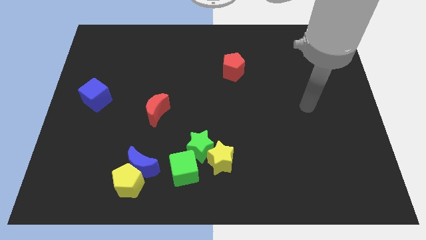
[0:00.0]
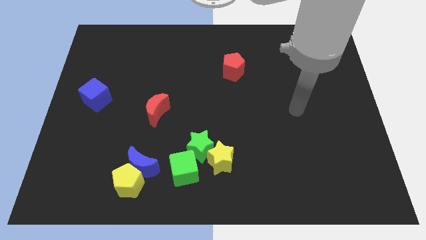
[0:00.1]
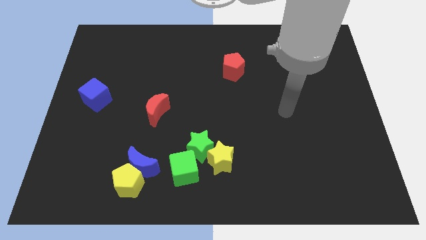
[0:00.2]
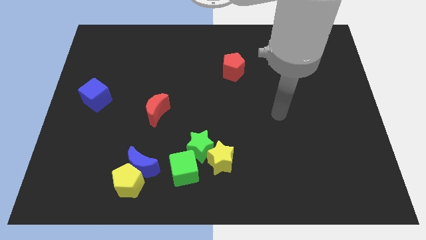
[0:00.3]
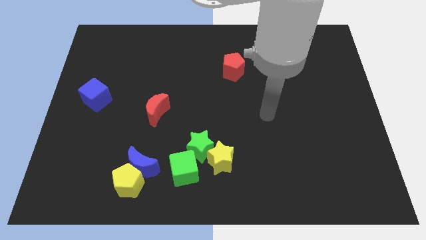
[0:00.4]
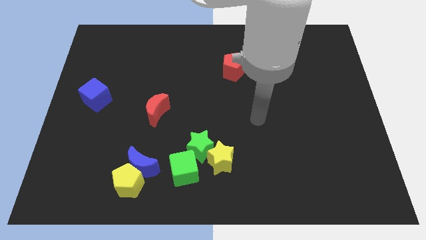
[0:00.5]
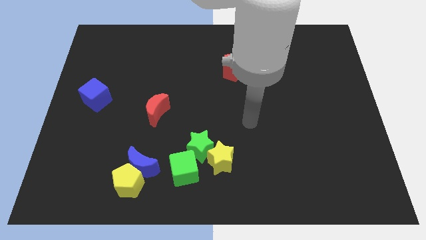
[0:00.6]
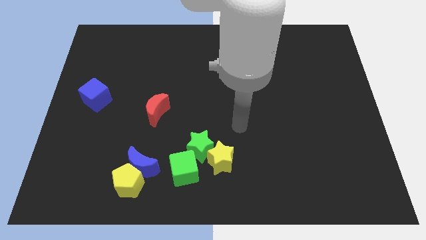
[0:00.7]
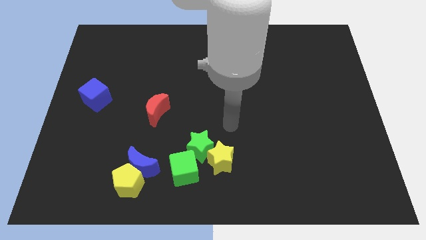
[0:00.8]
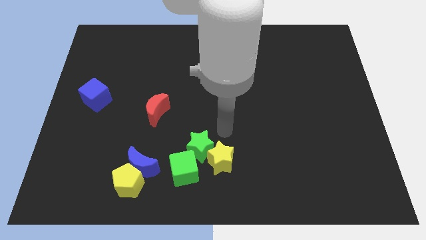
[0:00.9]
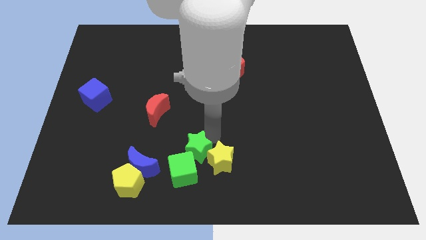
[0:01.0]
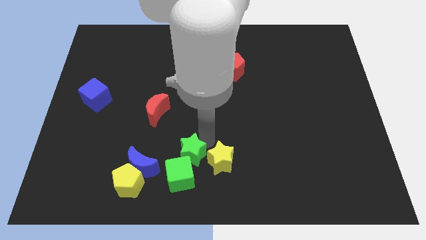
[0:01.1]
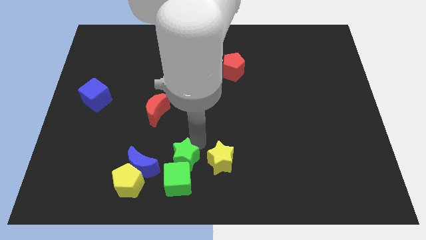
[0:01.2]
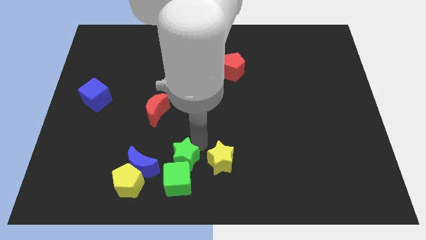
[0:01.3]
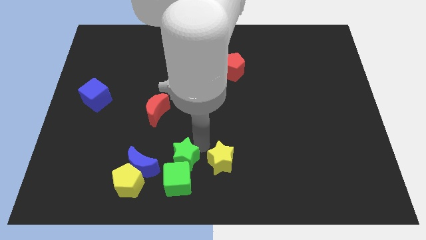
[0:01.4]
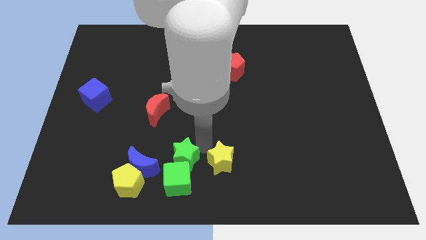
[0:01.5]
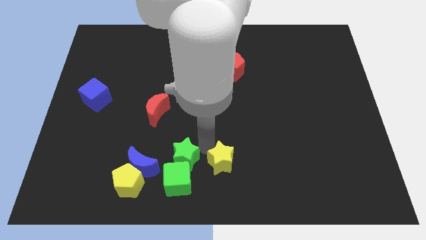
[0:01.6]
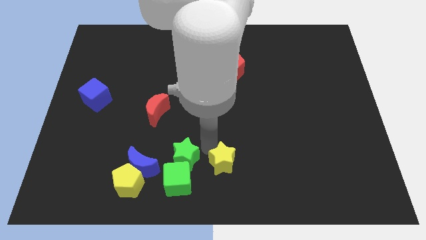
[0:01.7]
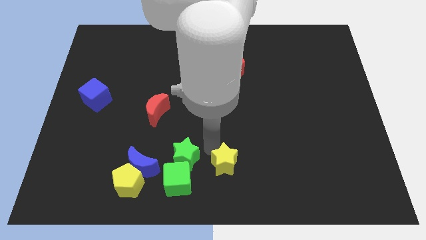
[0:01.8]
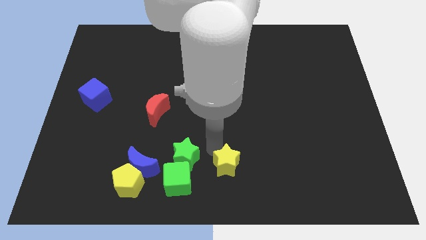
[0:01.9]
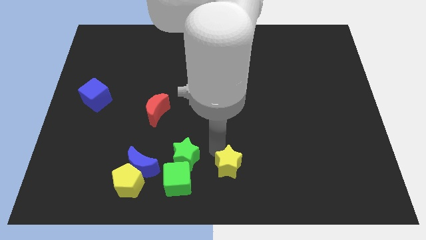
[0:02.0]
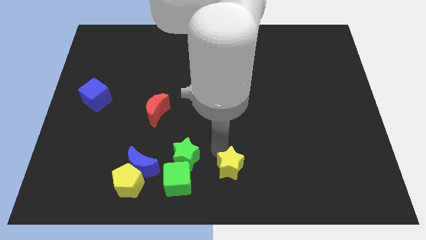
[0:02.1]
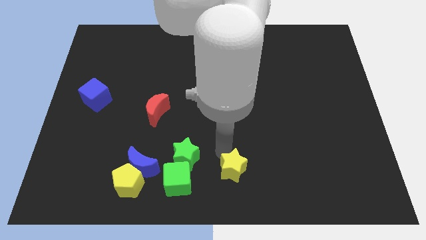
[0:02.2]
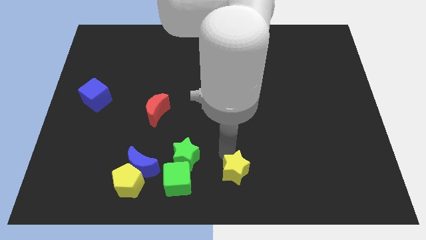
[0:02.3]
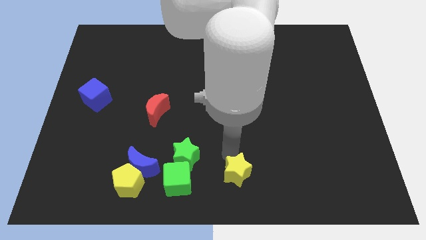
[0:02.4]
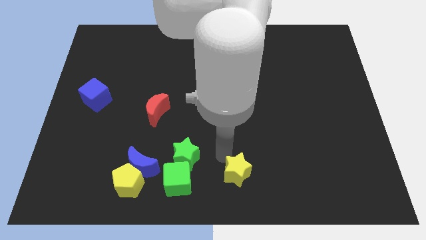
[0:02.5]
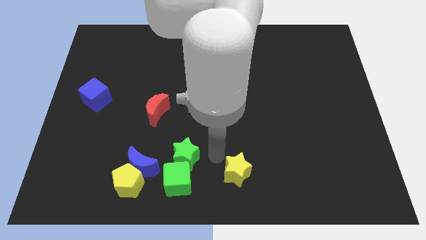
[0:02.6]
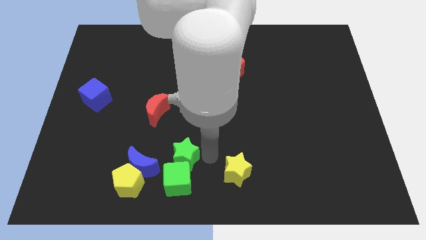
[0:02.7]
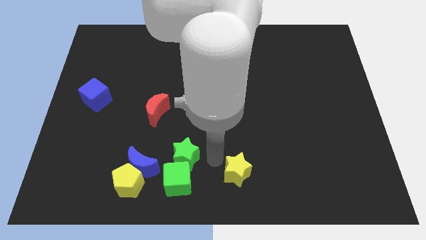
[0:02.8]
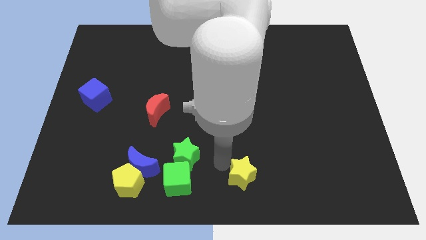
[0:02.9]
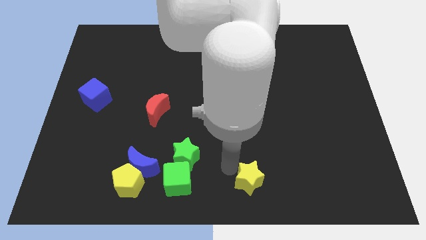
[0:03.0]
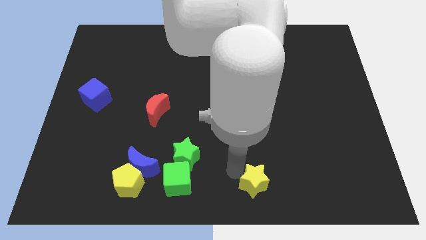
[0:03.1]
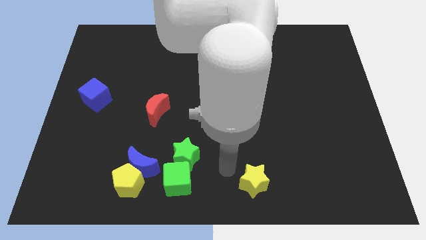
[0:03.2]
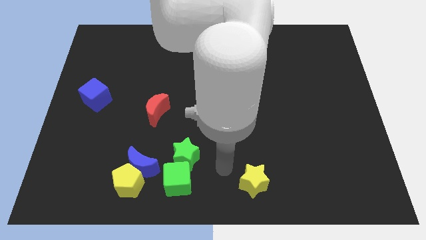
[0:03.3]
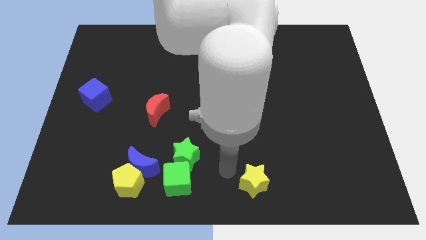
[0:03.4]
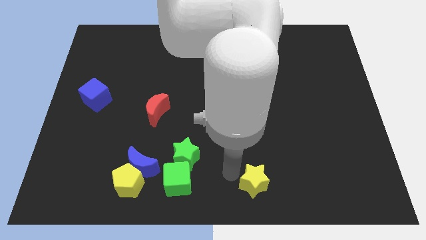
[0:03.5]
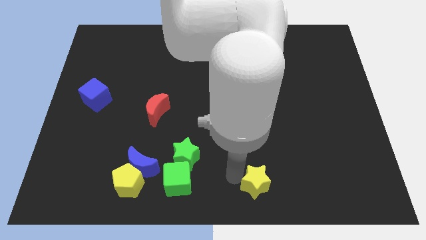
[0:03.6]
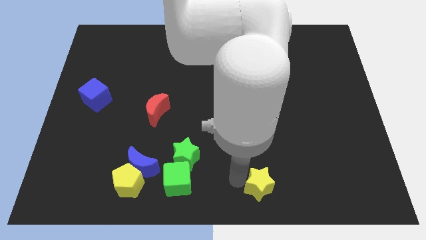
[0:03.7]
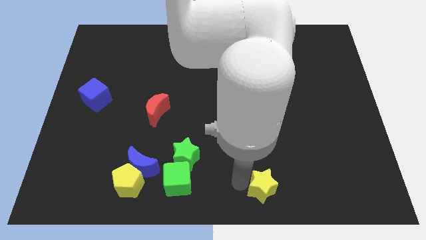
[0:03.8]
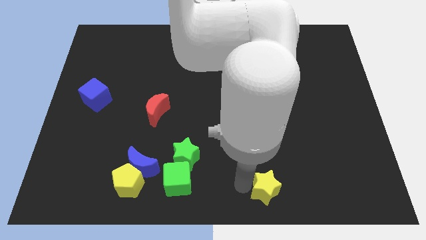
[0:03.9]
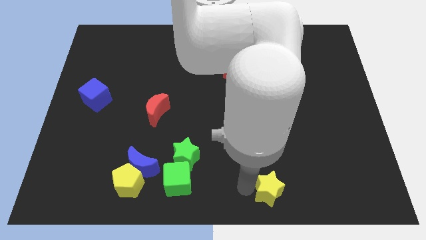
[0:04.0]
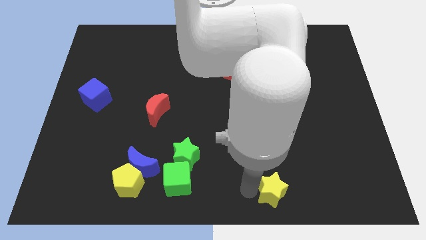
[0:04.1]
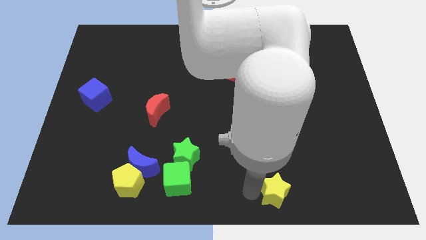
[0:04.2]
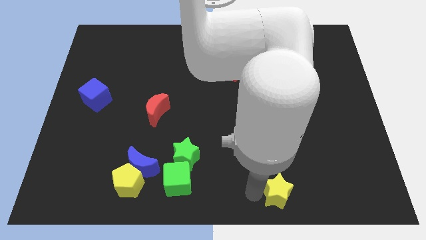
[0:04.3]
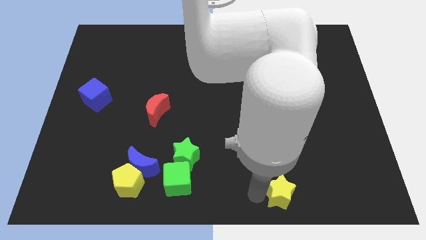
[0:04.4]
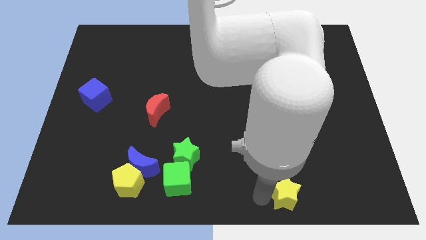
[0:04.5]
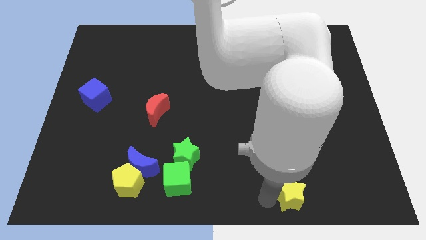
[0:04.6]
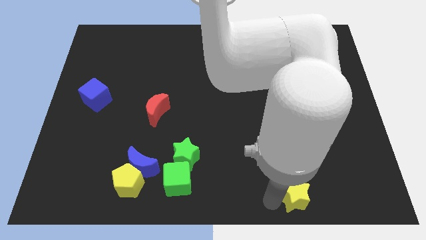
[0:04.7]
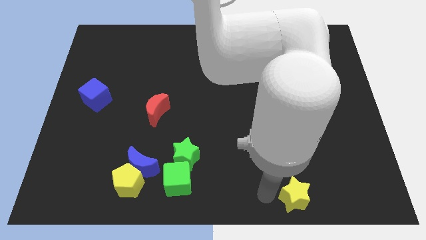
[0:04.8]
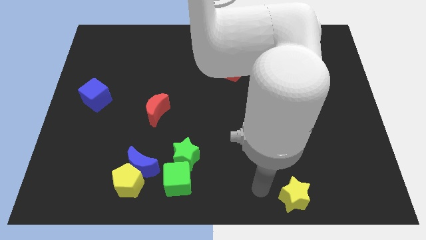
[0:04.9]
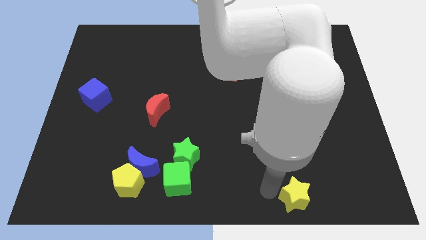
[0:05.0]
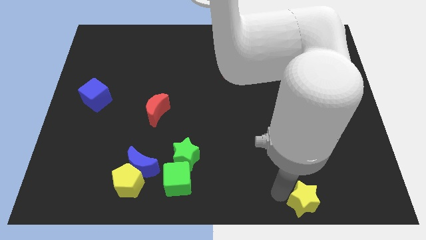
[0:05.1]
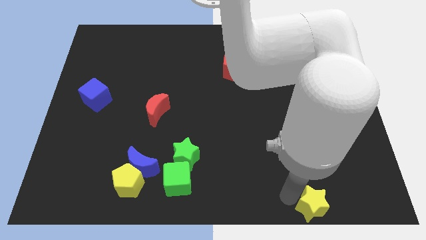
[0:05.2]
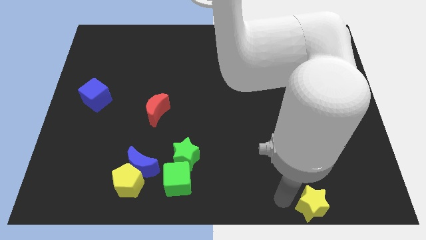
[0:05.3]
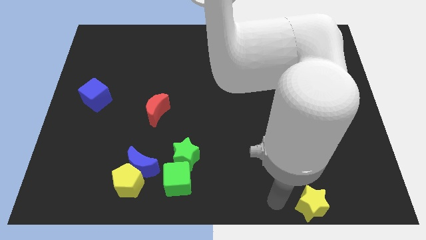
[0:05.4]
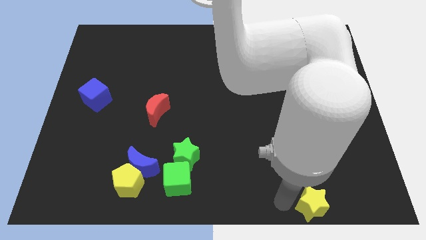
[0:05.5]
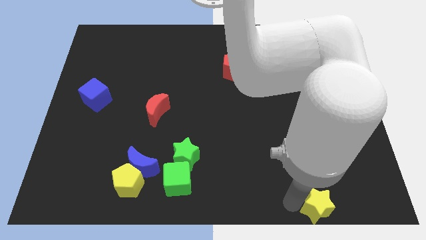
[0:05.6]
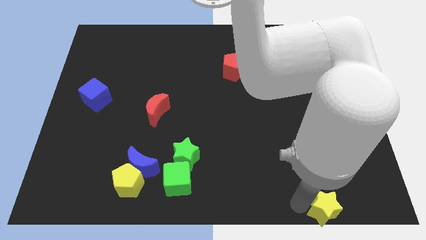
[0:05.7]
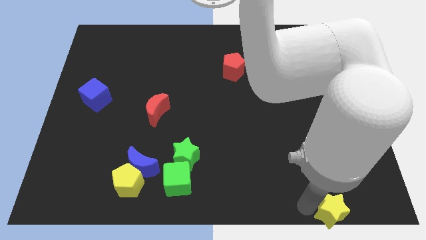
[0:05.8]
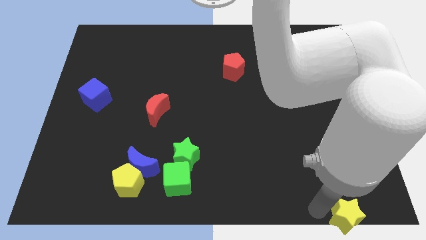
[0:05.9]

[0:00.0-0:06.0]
put the yellow star to the bottom right of the board

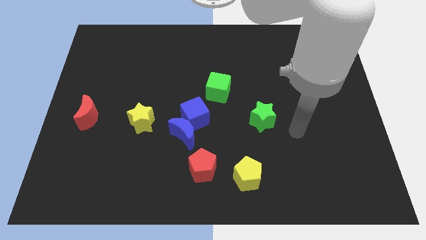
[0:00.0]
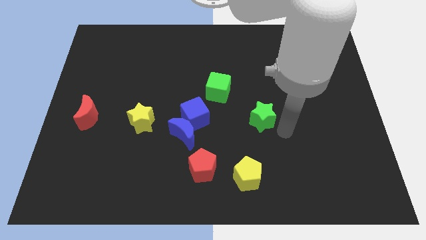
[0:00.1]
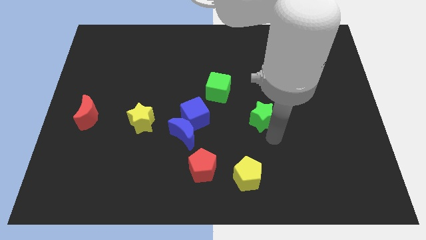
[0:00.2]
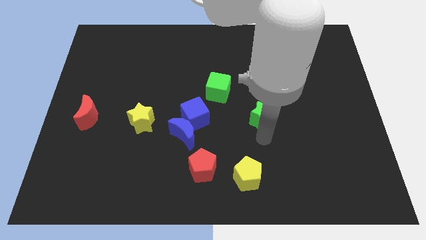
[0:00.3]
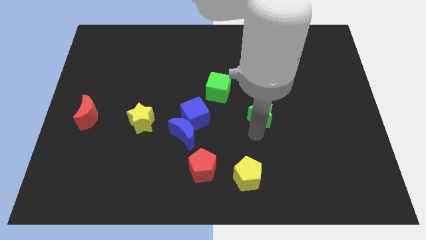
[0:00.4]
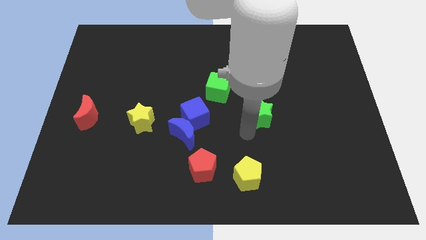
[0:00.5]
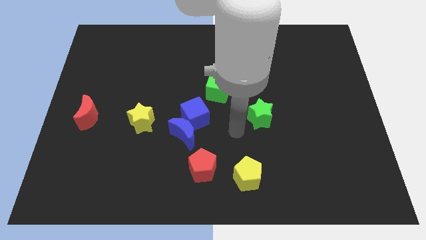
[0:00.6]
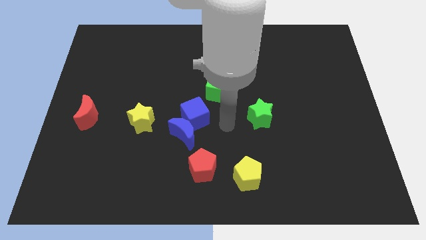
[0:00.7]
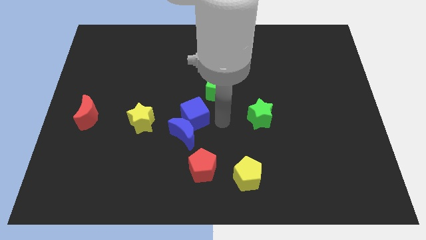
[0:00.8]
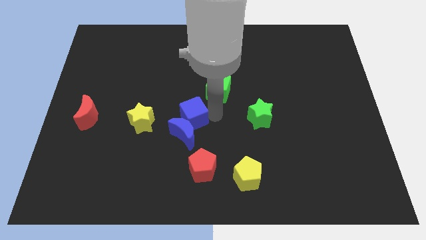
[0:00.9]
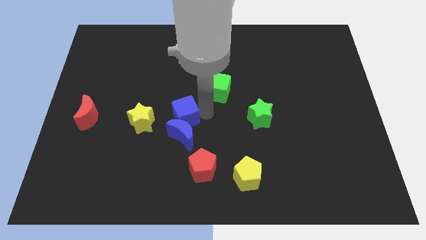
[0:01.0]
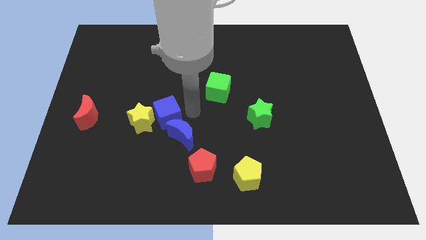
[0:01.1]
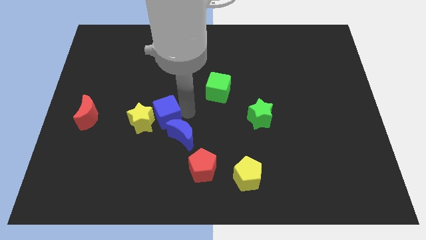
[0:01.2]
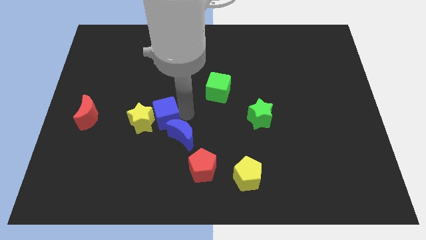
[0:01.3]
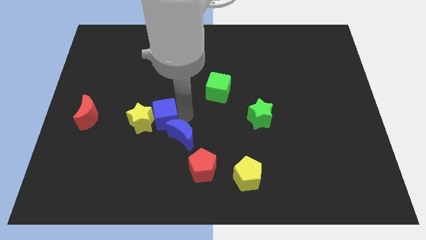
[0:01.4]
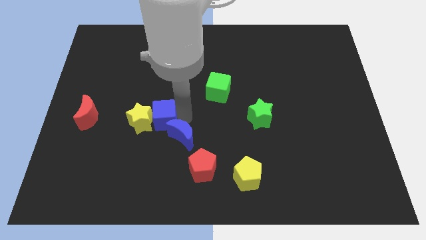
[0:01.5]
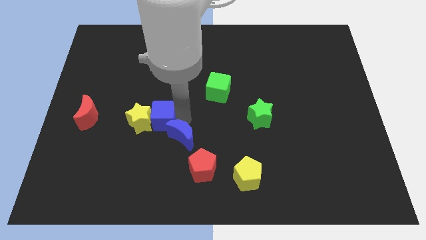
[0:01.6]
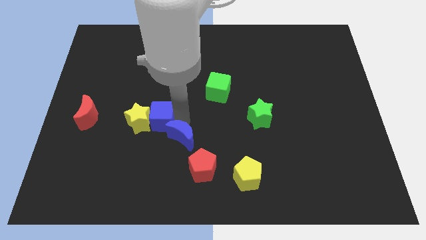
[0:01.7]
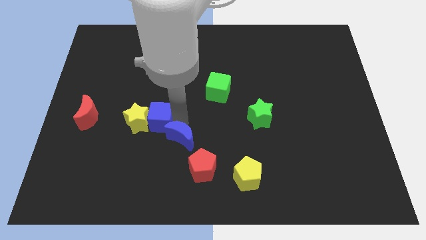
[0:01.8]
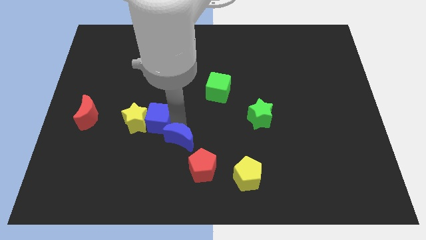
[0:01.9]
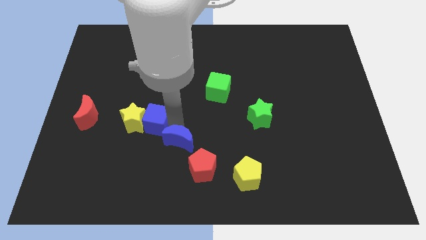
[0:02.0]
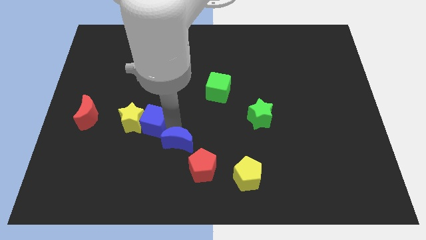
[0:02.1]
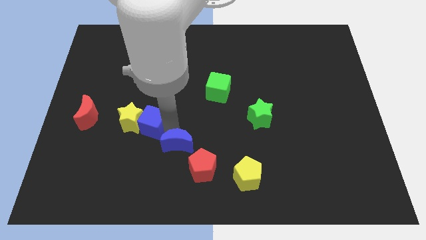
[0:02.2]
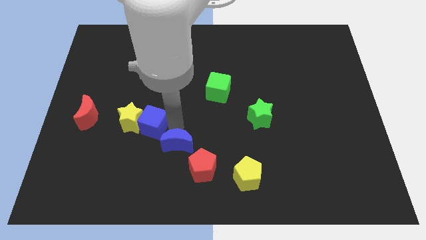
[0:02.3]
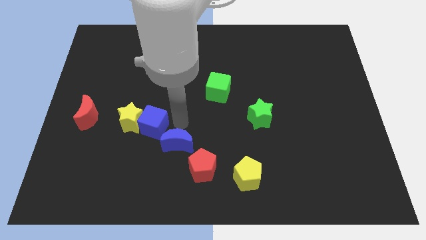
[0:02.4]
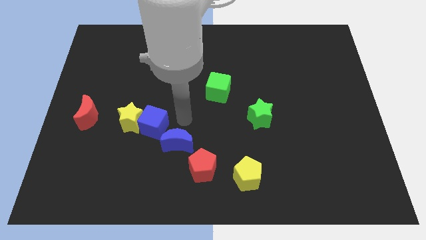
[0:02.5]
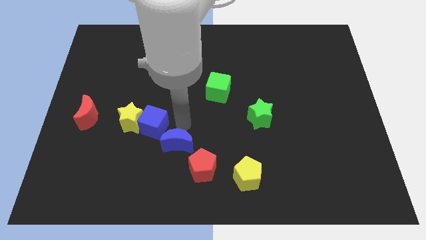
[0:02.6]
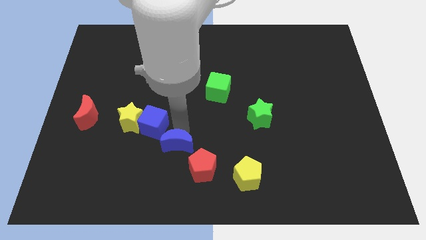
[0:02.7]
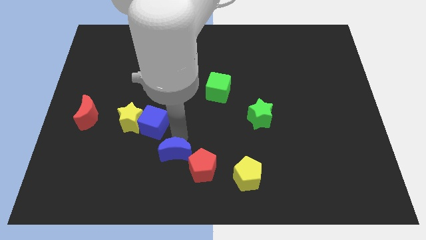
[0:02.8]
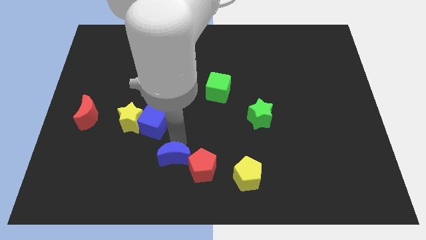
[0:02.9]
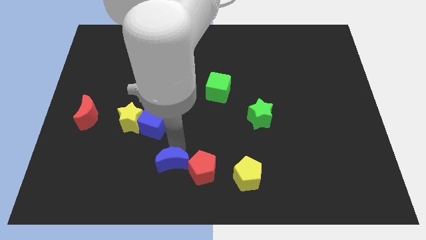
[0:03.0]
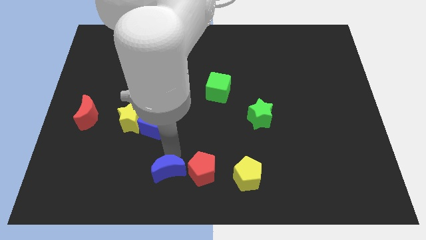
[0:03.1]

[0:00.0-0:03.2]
push the blue moon to the bottom
